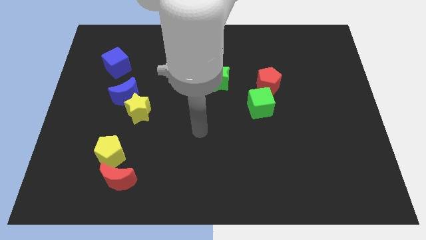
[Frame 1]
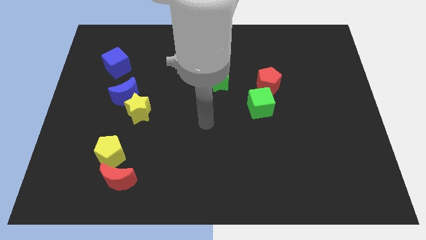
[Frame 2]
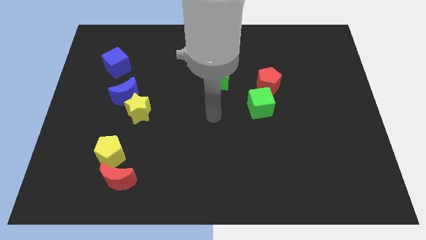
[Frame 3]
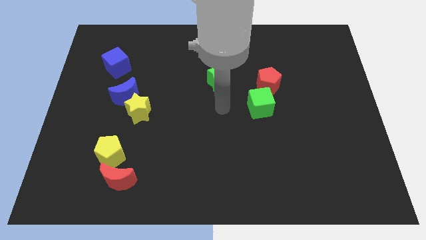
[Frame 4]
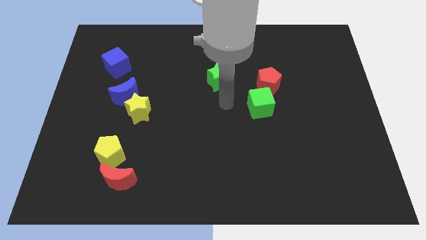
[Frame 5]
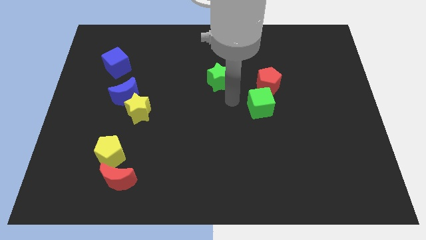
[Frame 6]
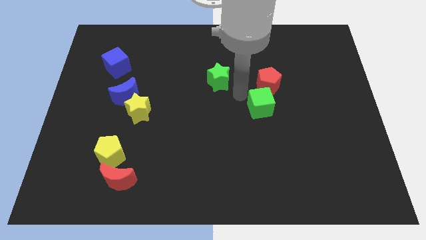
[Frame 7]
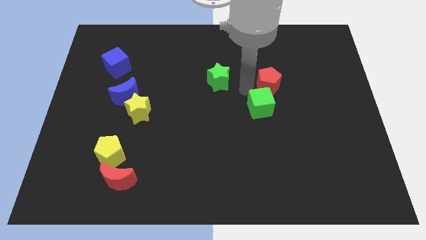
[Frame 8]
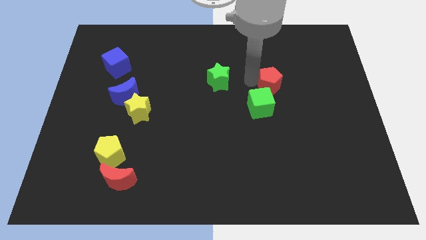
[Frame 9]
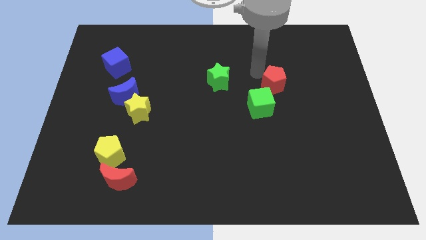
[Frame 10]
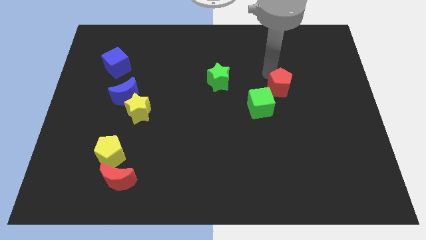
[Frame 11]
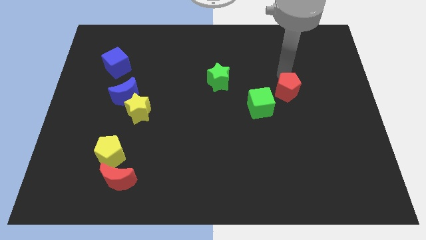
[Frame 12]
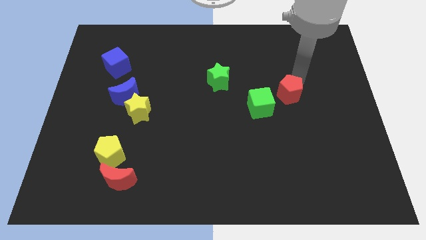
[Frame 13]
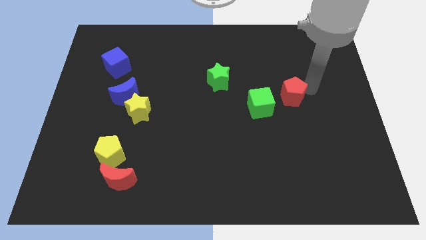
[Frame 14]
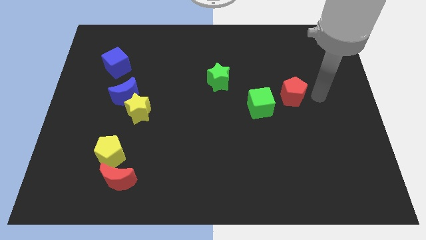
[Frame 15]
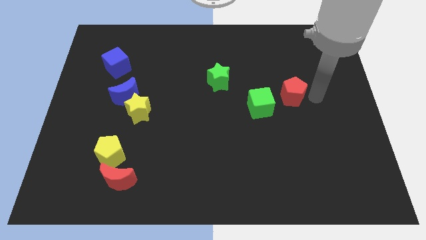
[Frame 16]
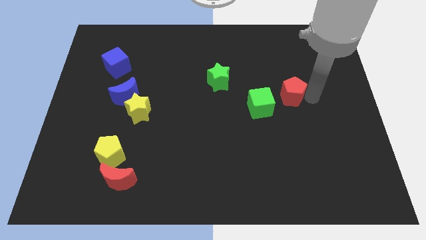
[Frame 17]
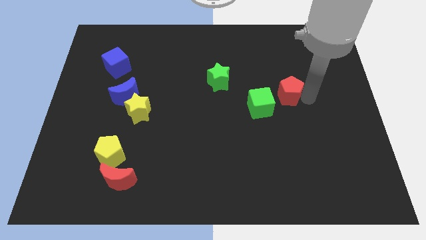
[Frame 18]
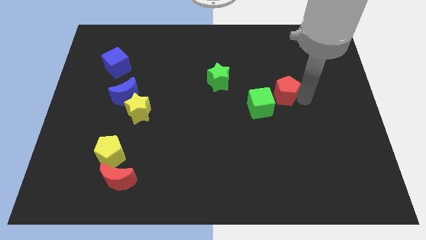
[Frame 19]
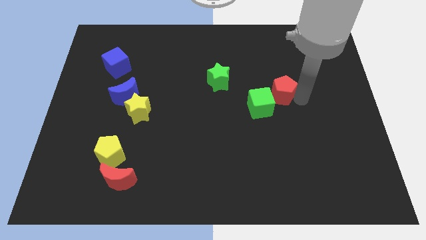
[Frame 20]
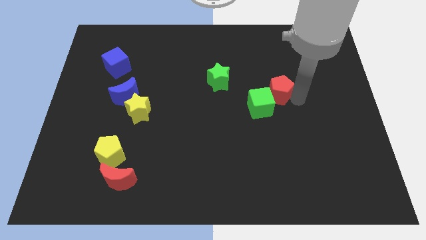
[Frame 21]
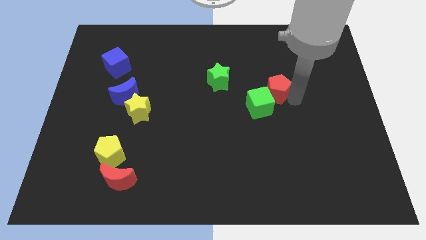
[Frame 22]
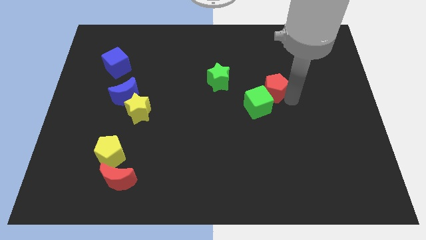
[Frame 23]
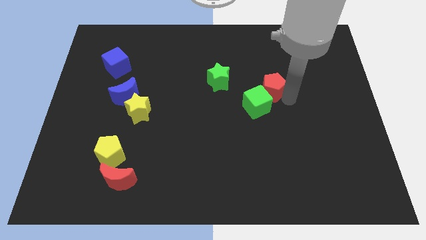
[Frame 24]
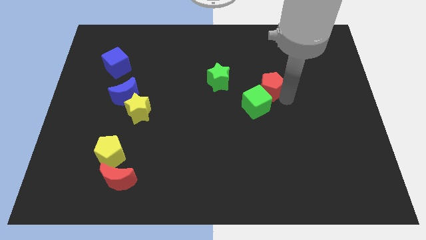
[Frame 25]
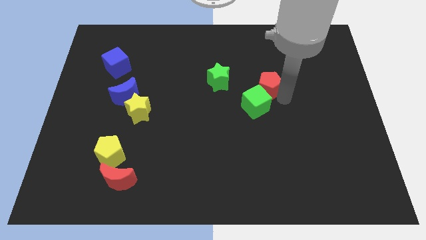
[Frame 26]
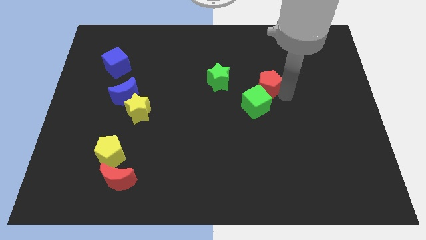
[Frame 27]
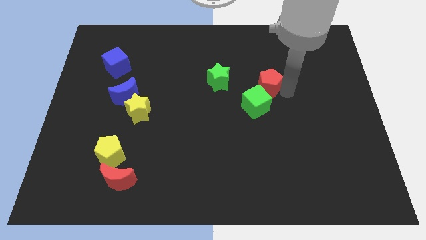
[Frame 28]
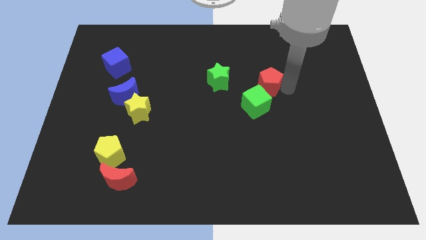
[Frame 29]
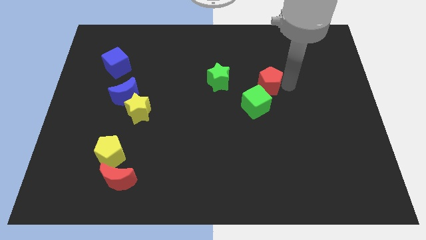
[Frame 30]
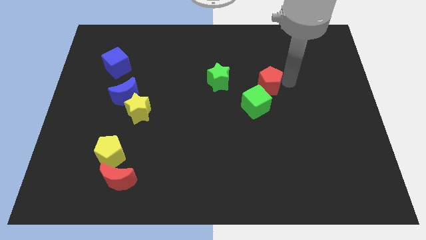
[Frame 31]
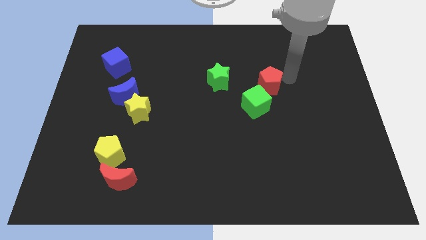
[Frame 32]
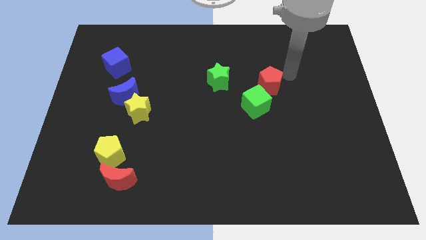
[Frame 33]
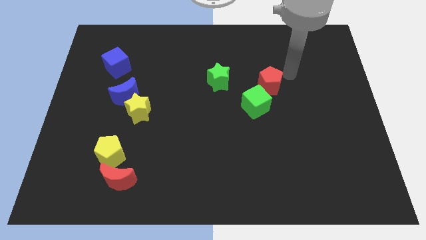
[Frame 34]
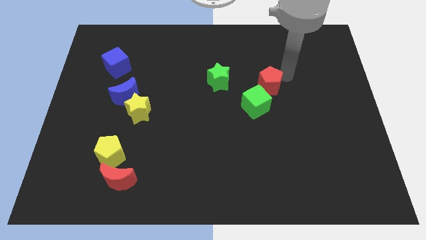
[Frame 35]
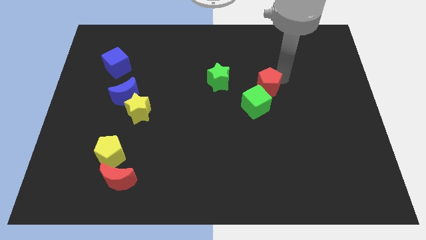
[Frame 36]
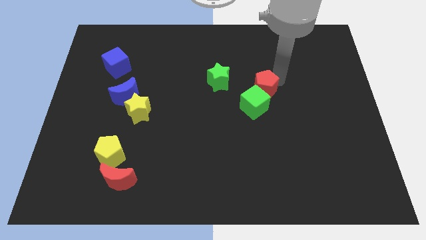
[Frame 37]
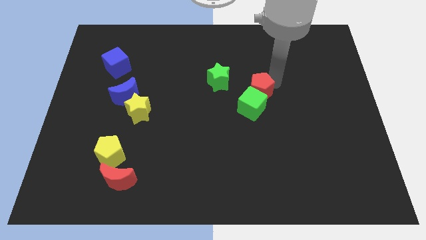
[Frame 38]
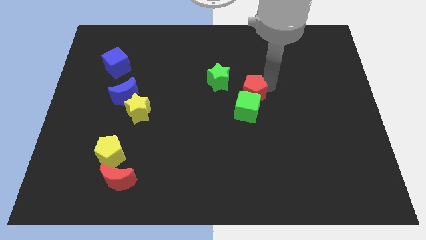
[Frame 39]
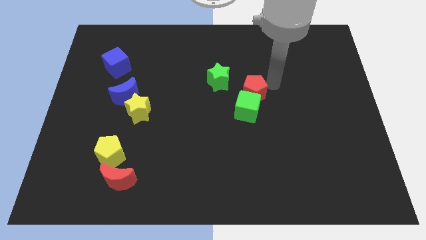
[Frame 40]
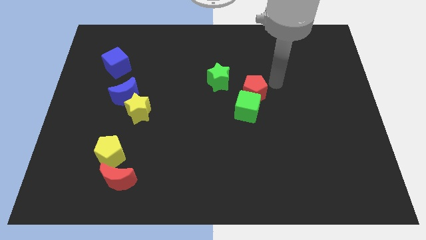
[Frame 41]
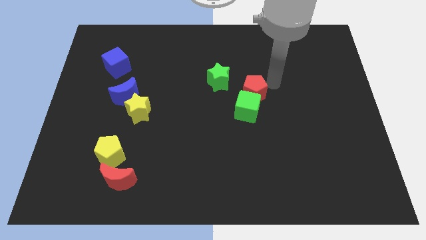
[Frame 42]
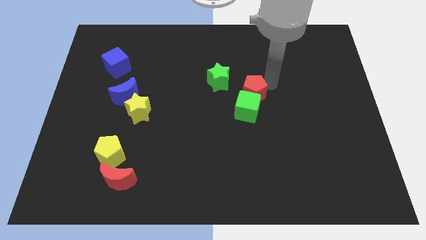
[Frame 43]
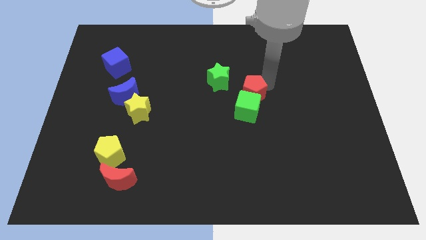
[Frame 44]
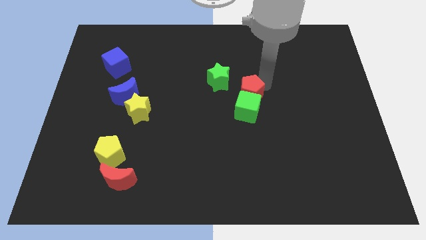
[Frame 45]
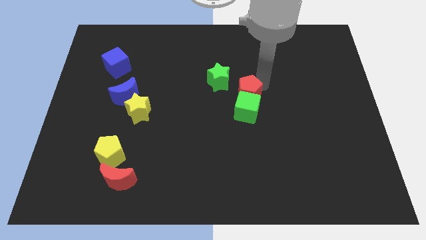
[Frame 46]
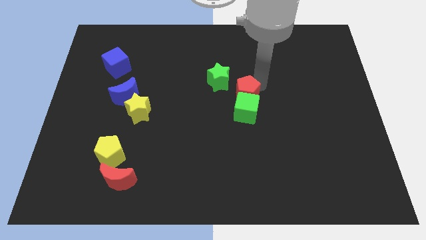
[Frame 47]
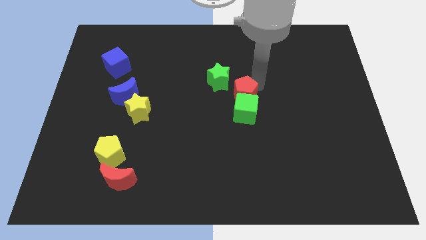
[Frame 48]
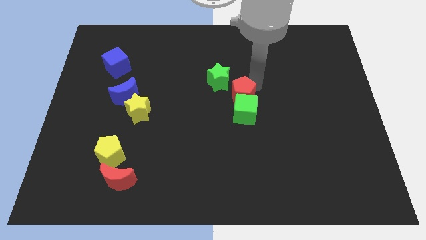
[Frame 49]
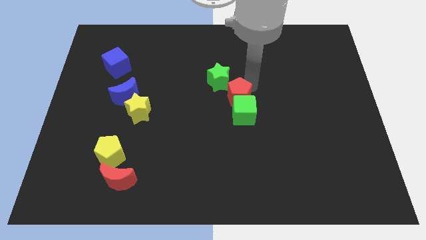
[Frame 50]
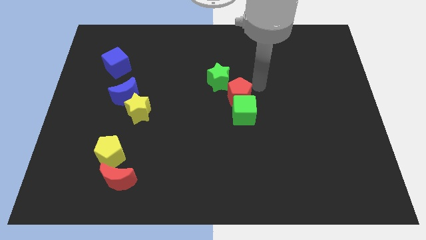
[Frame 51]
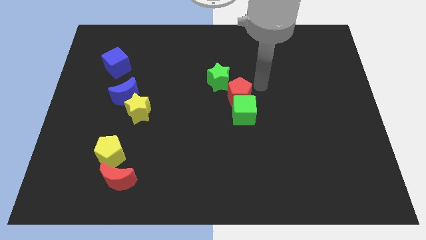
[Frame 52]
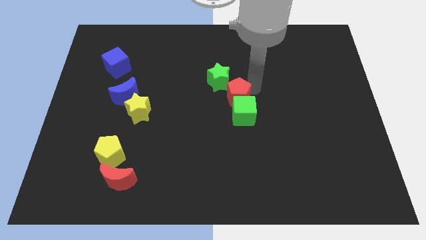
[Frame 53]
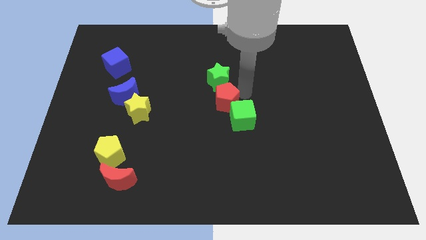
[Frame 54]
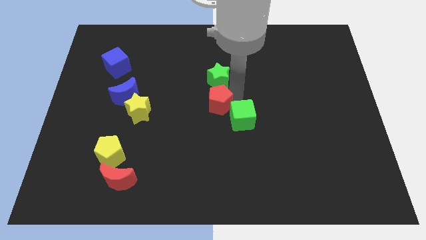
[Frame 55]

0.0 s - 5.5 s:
push the red pentagon to the left of the green cube

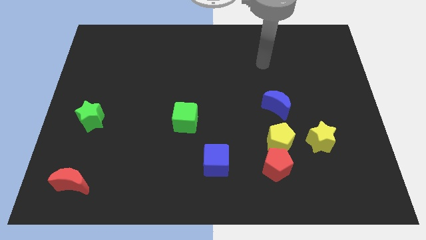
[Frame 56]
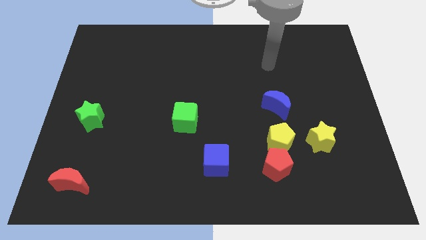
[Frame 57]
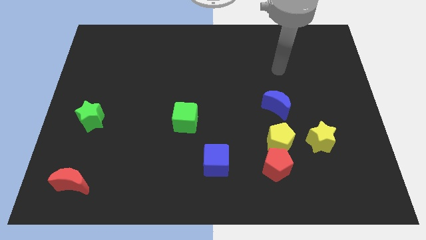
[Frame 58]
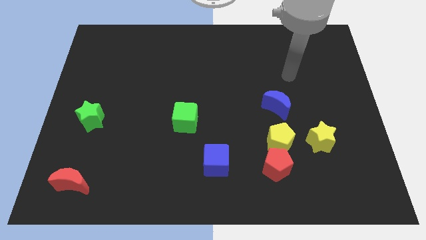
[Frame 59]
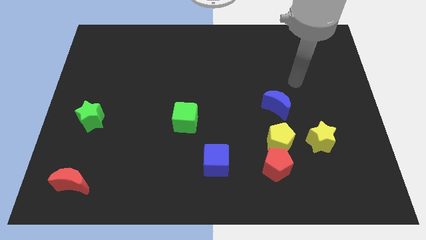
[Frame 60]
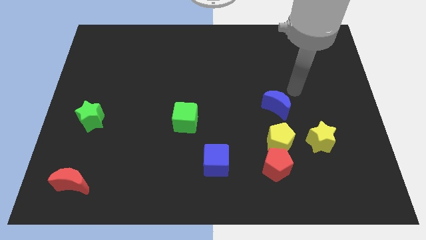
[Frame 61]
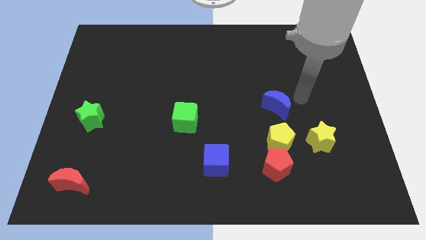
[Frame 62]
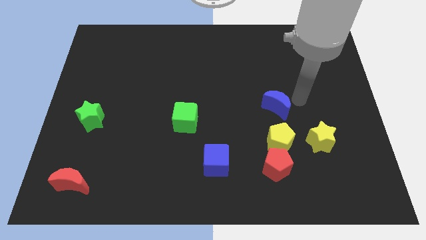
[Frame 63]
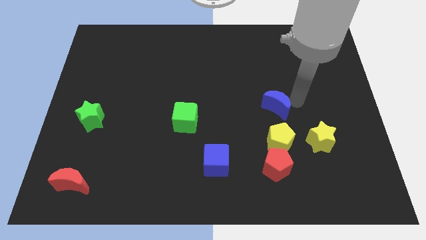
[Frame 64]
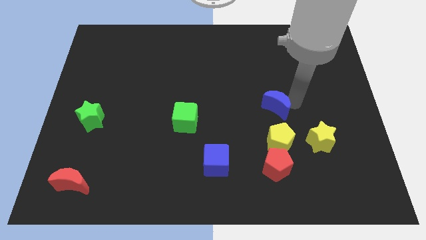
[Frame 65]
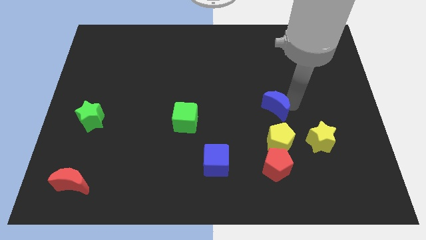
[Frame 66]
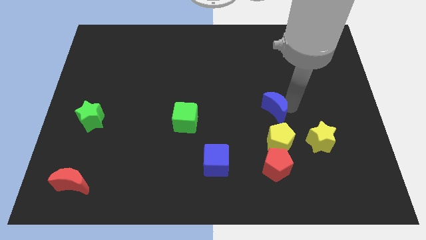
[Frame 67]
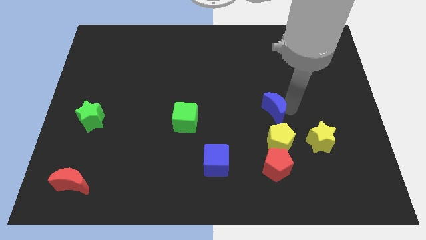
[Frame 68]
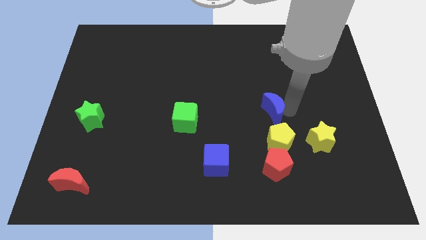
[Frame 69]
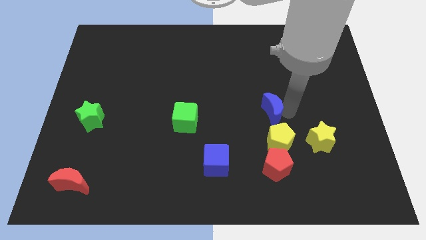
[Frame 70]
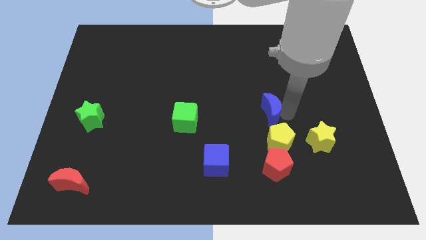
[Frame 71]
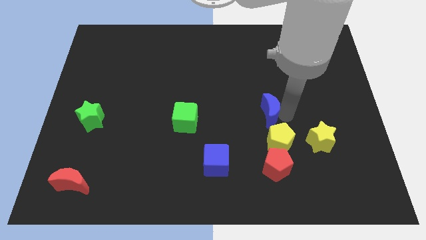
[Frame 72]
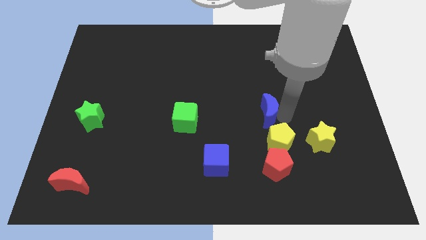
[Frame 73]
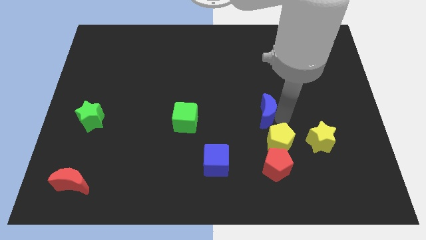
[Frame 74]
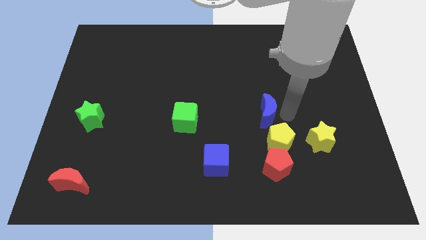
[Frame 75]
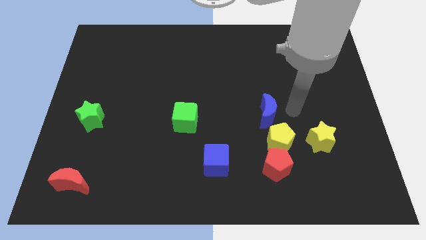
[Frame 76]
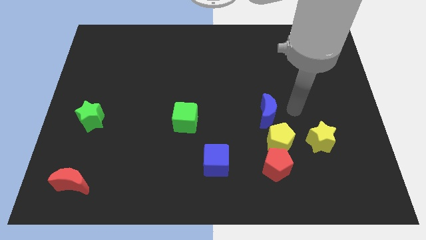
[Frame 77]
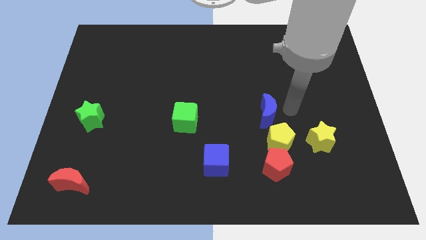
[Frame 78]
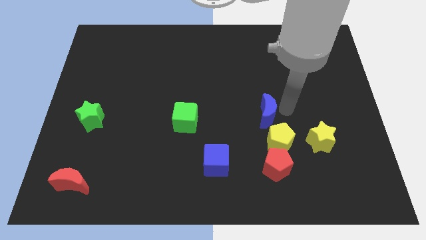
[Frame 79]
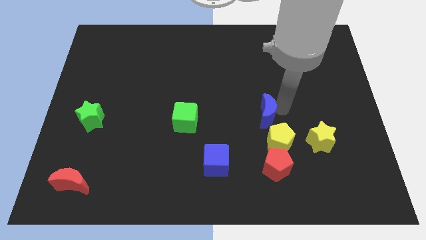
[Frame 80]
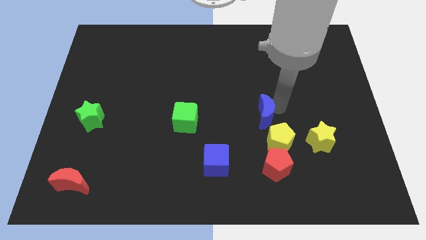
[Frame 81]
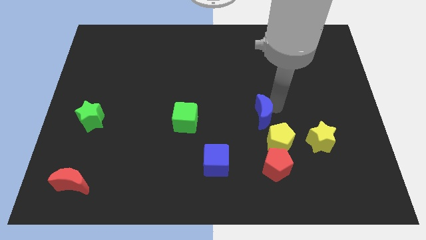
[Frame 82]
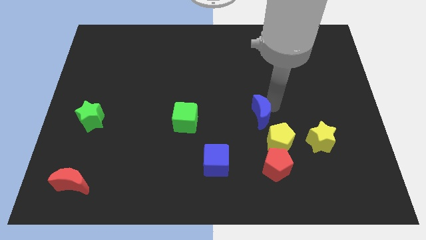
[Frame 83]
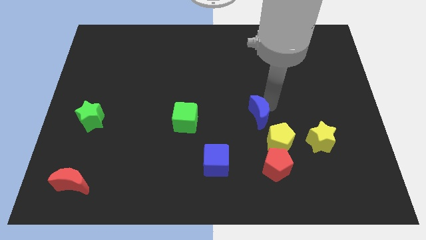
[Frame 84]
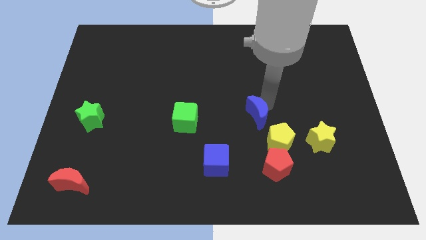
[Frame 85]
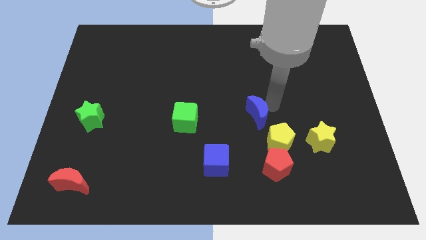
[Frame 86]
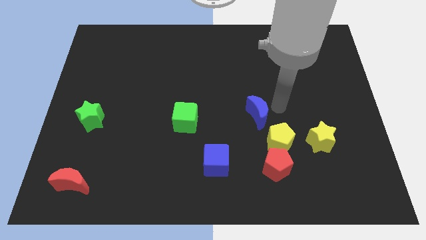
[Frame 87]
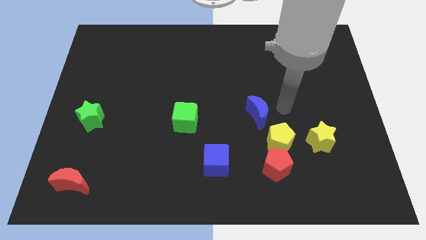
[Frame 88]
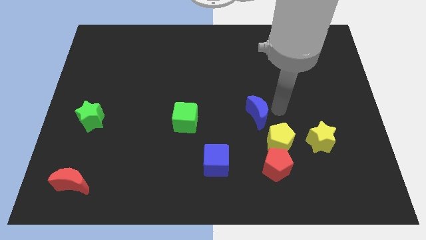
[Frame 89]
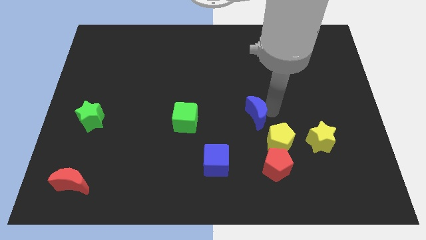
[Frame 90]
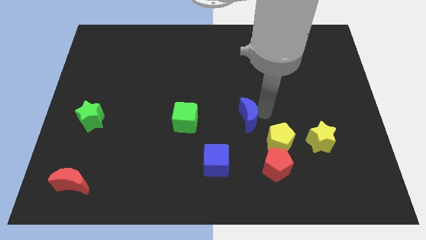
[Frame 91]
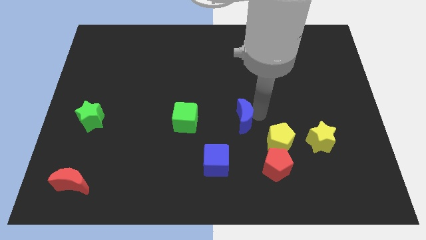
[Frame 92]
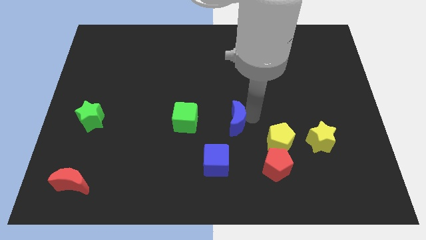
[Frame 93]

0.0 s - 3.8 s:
slide the blue moon to the top side of the blue cube
